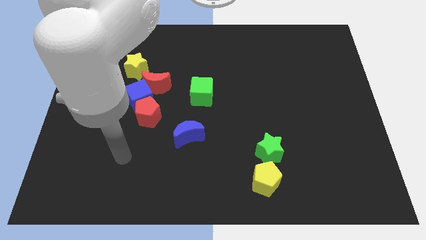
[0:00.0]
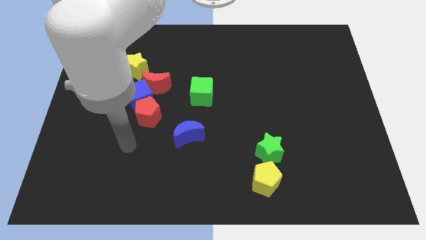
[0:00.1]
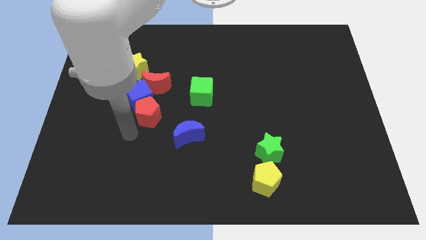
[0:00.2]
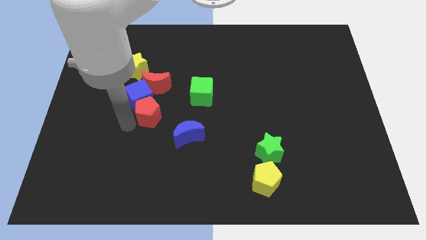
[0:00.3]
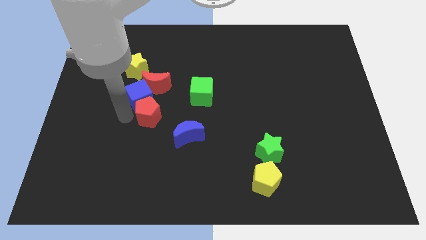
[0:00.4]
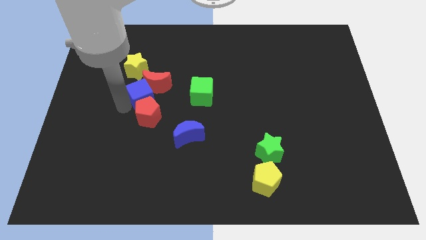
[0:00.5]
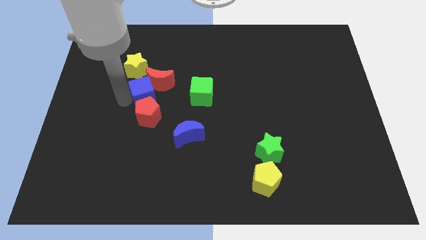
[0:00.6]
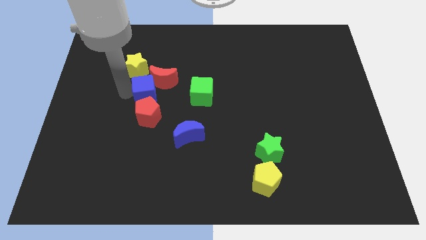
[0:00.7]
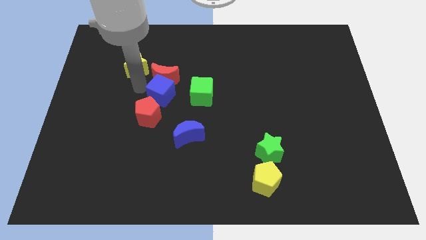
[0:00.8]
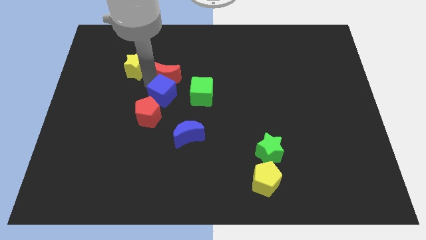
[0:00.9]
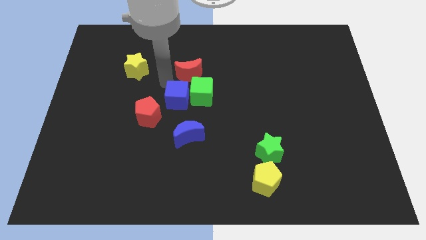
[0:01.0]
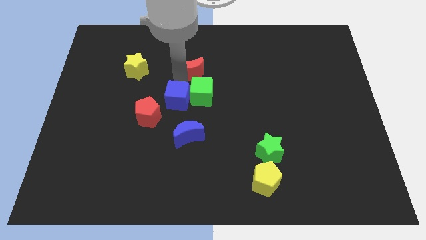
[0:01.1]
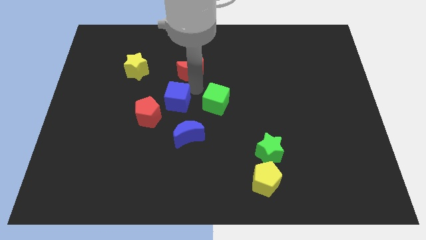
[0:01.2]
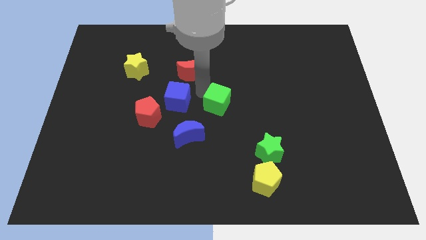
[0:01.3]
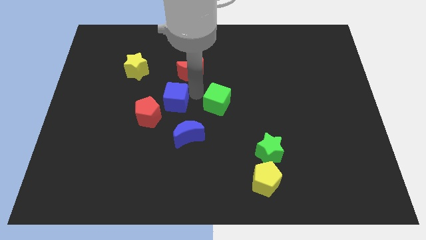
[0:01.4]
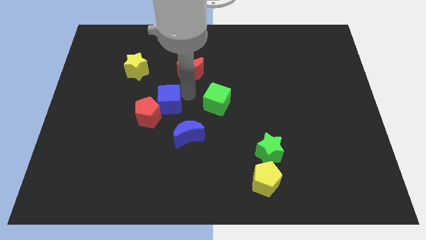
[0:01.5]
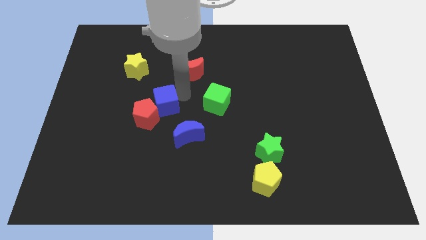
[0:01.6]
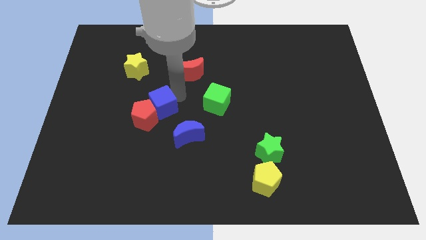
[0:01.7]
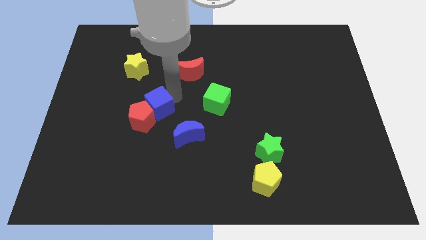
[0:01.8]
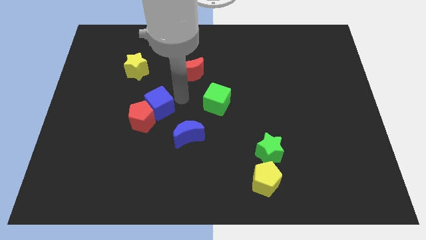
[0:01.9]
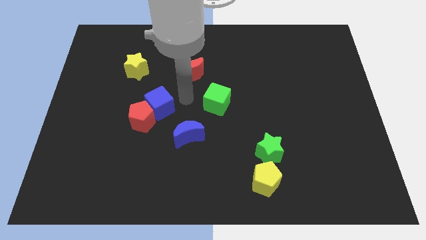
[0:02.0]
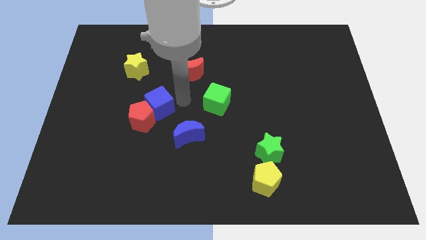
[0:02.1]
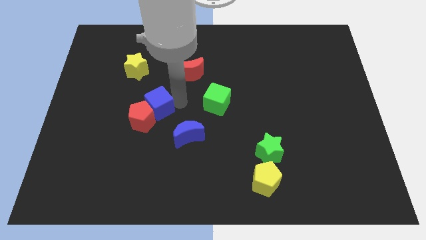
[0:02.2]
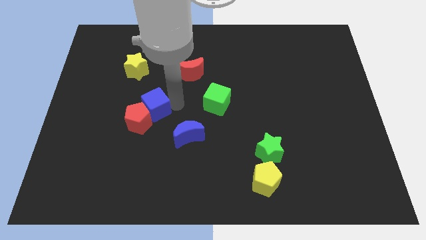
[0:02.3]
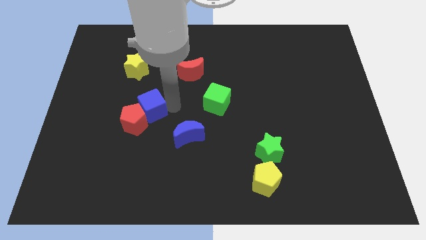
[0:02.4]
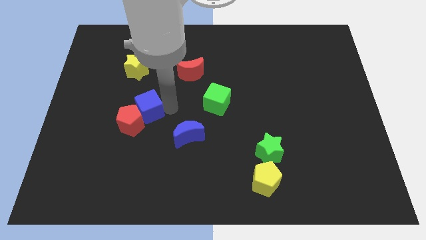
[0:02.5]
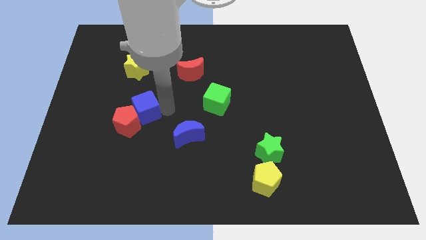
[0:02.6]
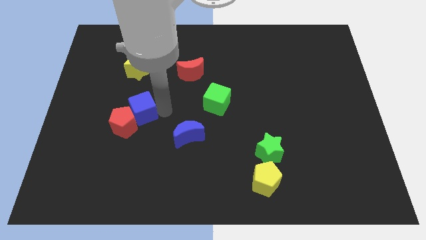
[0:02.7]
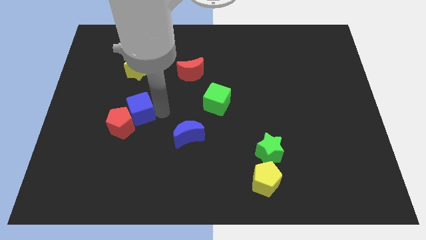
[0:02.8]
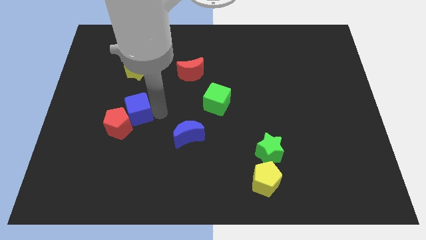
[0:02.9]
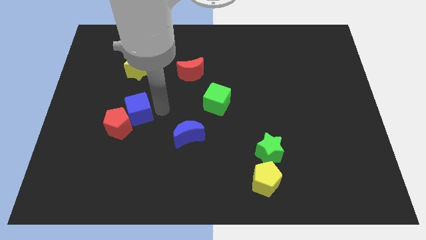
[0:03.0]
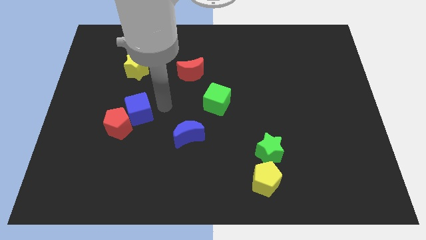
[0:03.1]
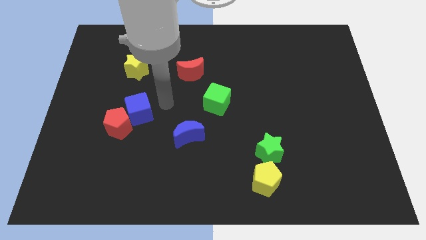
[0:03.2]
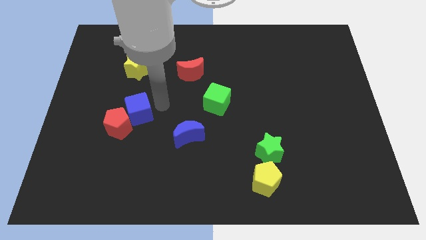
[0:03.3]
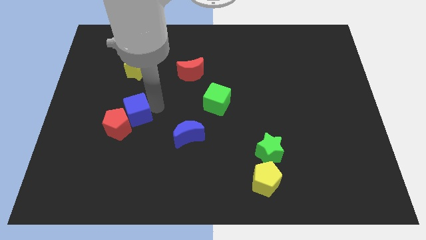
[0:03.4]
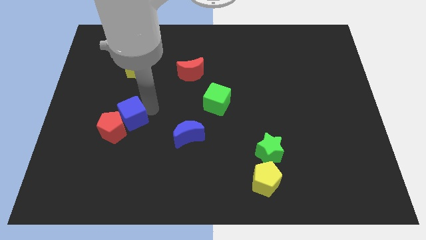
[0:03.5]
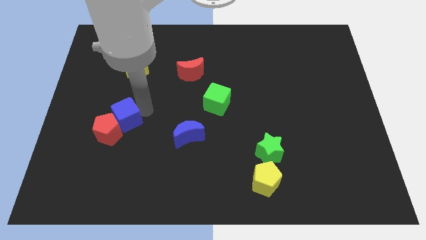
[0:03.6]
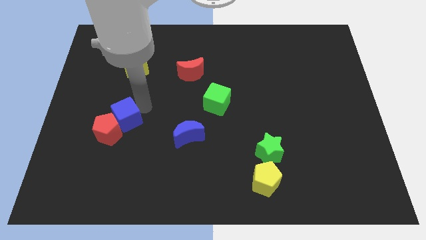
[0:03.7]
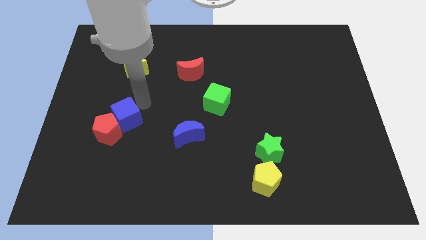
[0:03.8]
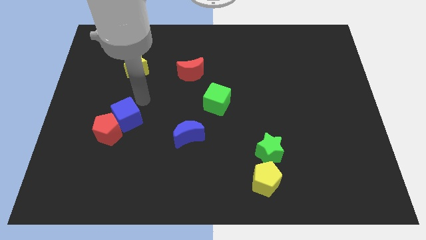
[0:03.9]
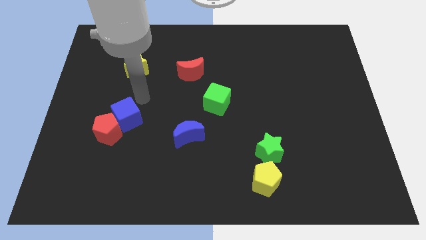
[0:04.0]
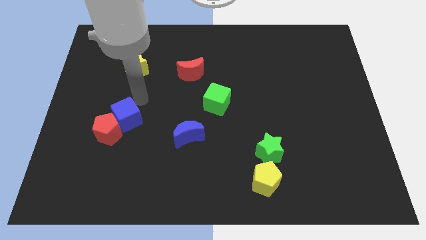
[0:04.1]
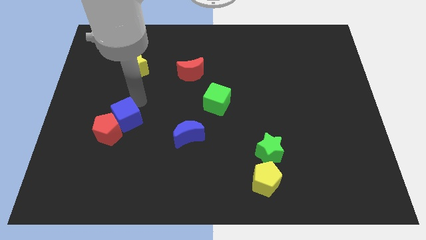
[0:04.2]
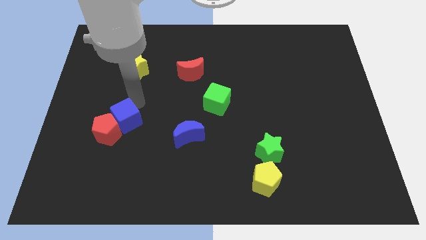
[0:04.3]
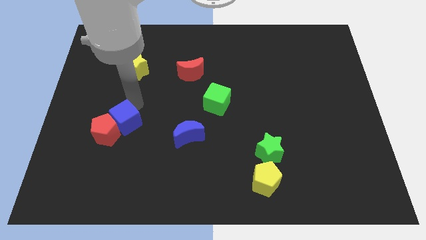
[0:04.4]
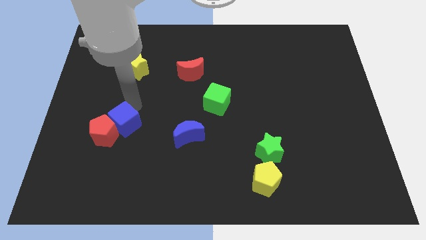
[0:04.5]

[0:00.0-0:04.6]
move the blue cube away from the group of blocks

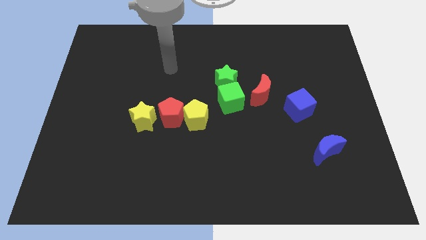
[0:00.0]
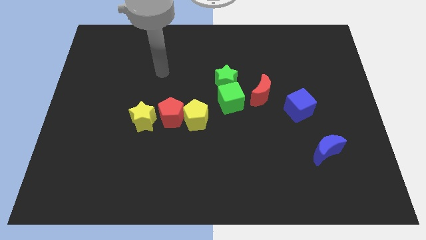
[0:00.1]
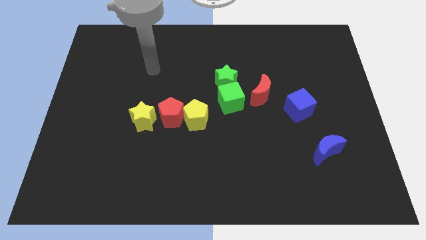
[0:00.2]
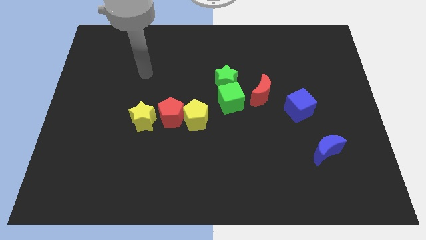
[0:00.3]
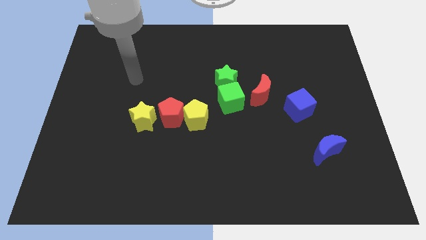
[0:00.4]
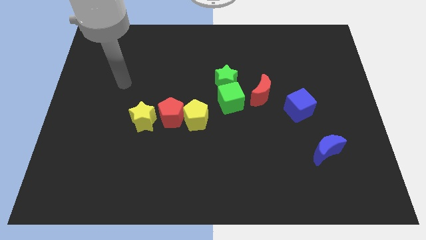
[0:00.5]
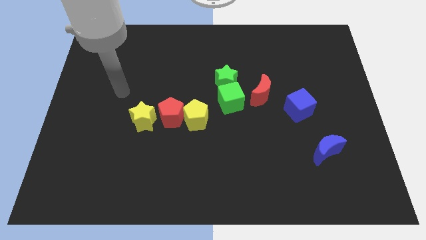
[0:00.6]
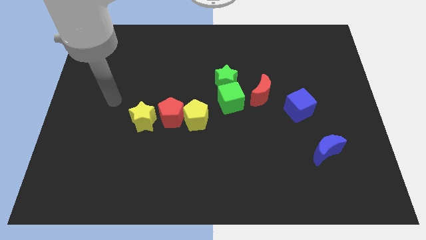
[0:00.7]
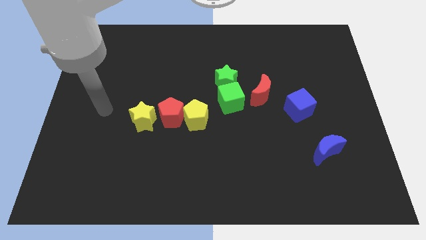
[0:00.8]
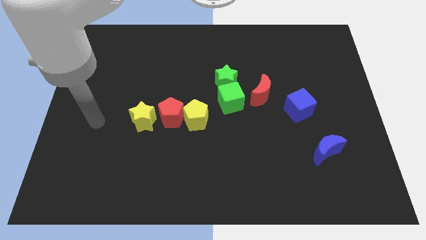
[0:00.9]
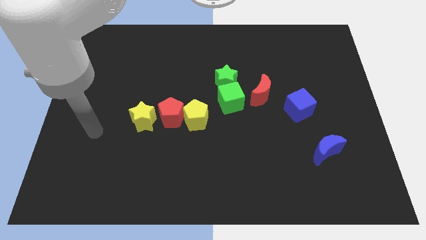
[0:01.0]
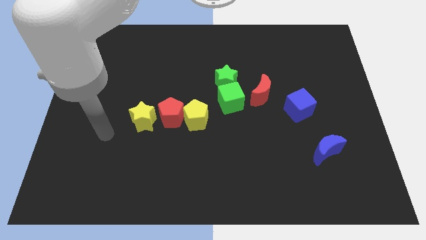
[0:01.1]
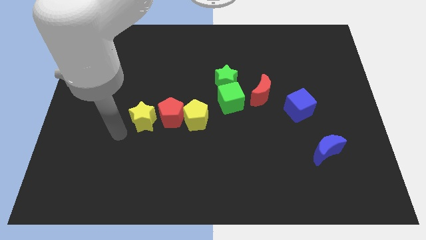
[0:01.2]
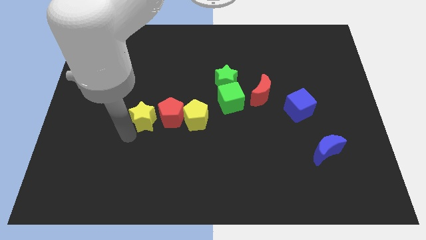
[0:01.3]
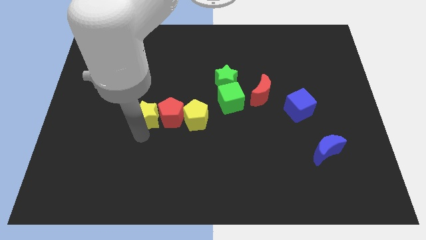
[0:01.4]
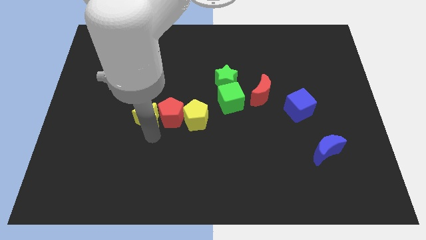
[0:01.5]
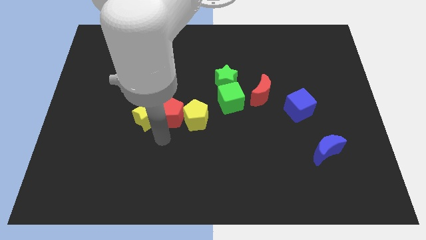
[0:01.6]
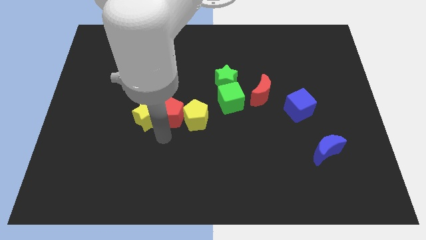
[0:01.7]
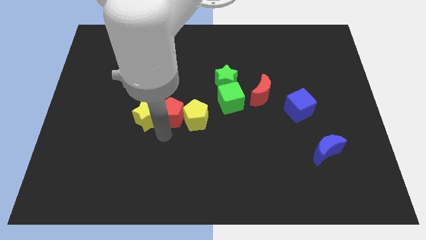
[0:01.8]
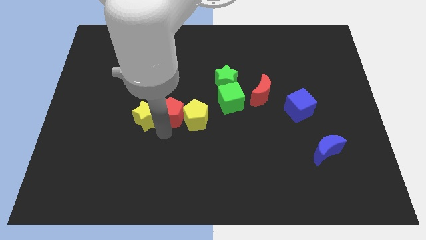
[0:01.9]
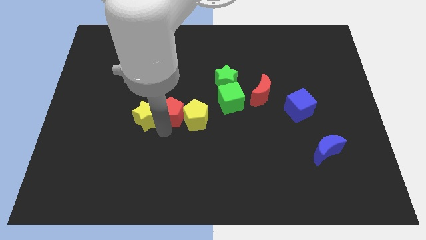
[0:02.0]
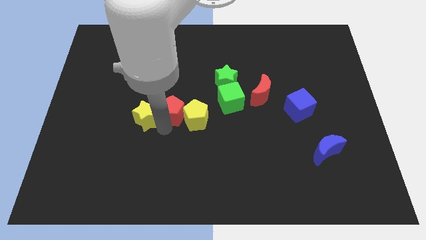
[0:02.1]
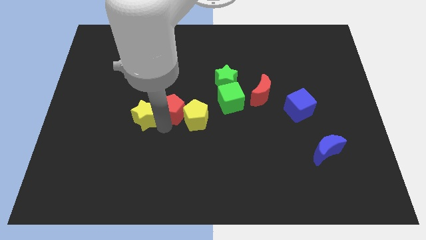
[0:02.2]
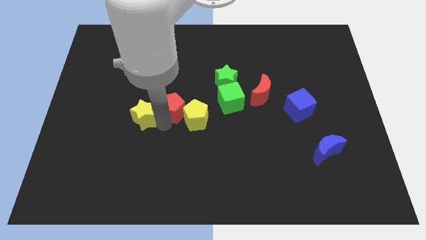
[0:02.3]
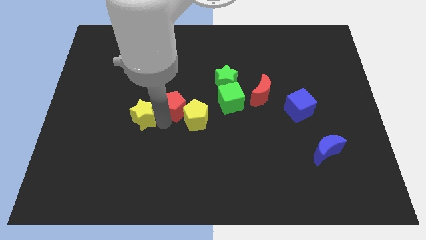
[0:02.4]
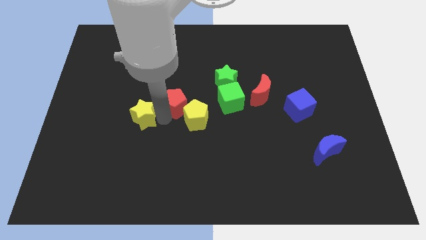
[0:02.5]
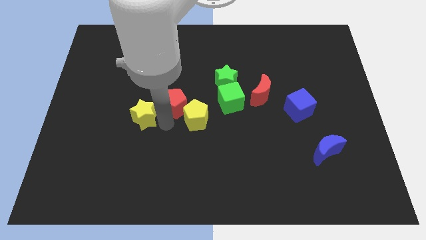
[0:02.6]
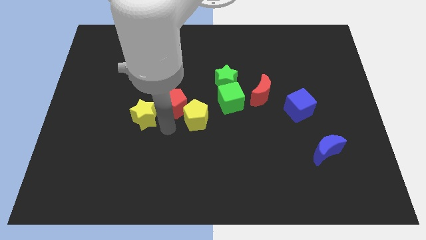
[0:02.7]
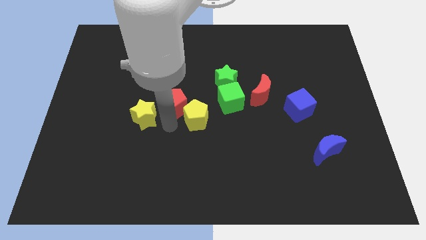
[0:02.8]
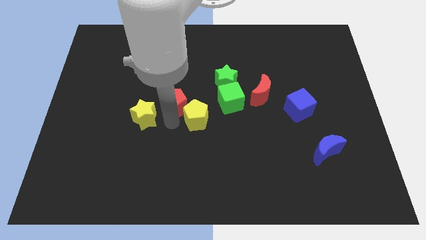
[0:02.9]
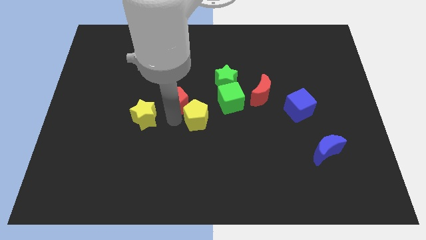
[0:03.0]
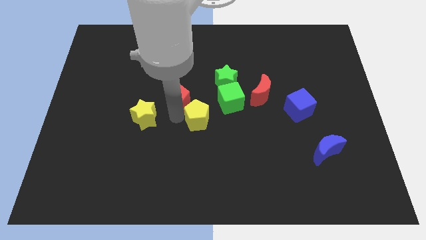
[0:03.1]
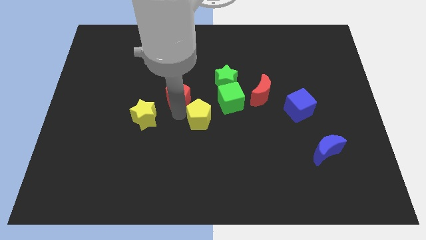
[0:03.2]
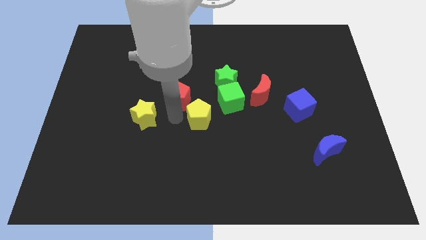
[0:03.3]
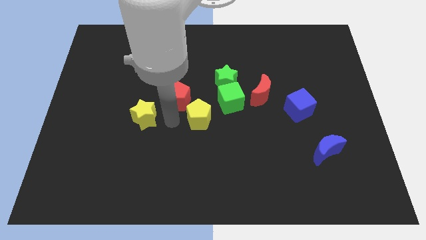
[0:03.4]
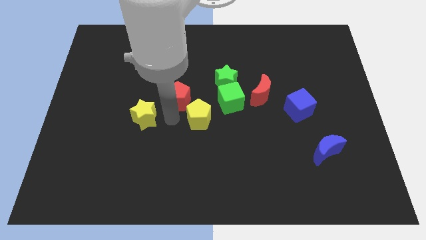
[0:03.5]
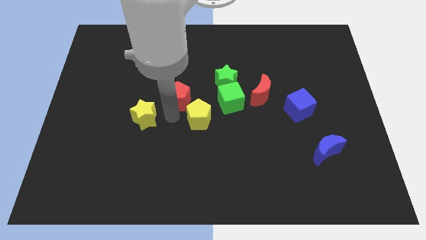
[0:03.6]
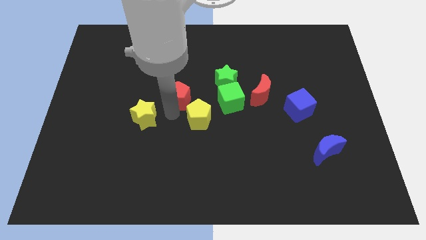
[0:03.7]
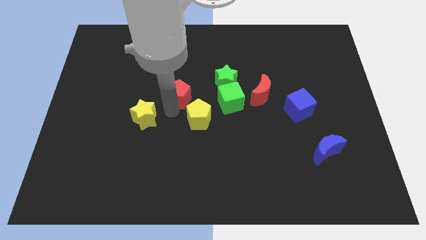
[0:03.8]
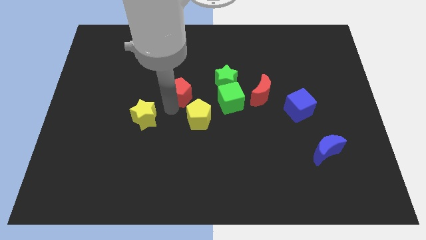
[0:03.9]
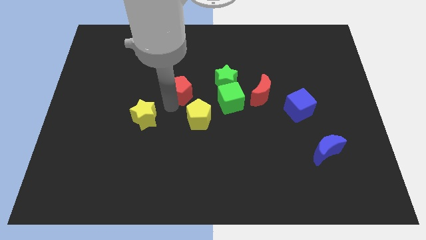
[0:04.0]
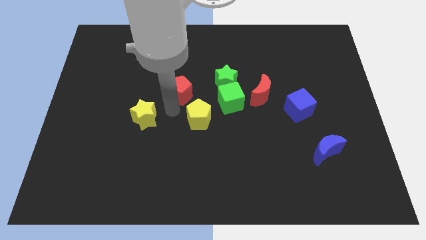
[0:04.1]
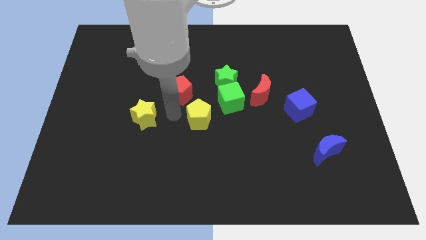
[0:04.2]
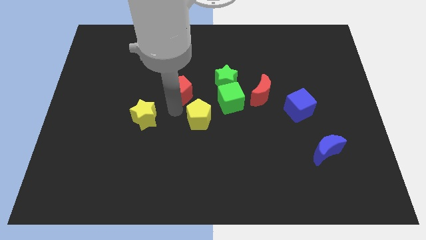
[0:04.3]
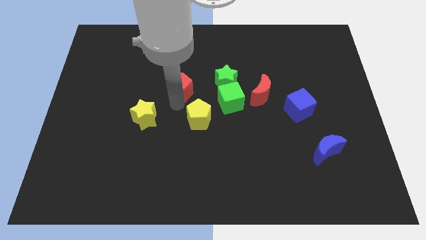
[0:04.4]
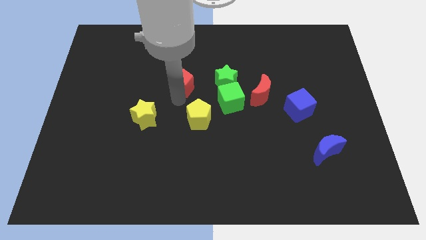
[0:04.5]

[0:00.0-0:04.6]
separate the red pentagon from the yellow pentagon and yellow star

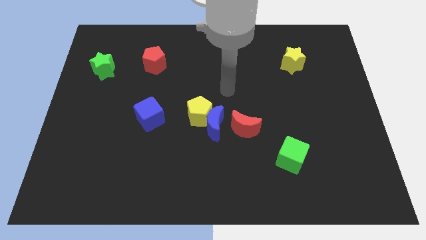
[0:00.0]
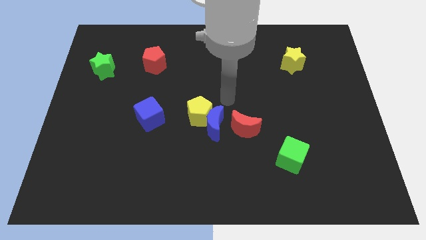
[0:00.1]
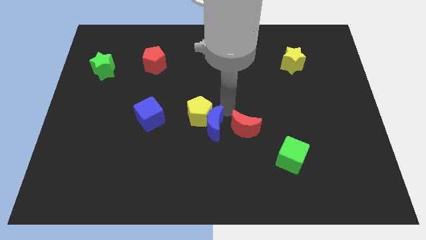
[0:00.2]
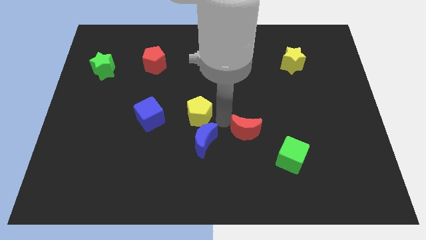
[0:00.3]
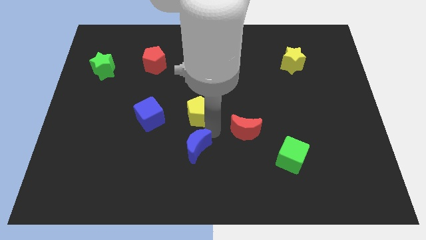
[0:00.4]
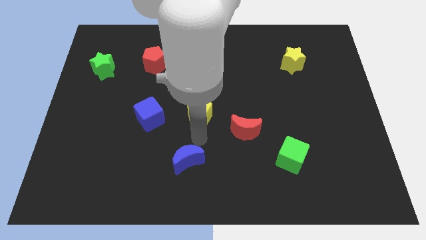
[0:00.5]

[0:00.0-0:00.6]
move the yellow pentagon away from the blue moon
